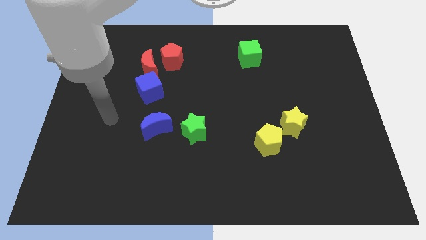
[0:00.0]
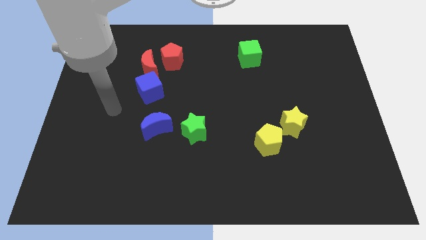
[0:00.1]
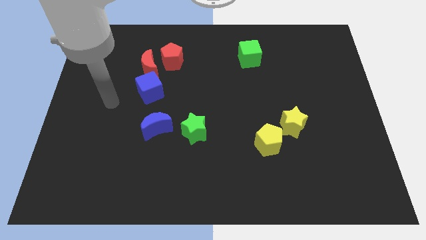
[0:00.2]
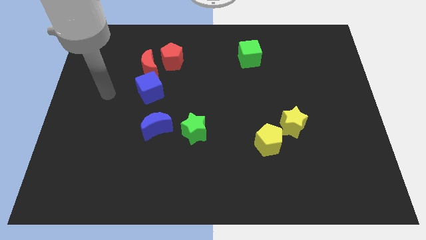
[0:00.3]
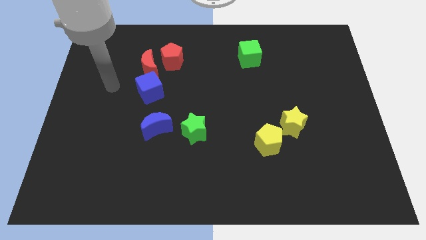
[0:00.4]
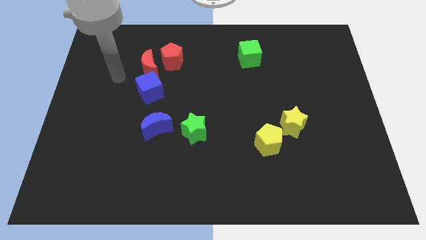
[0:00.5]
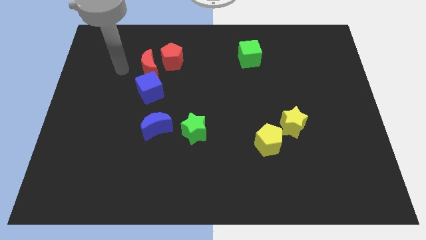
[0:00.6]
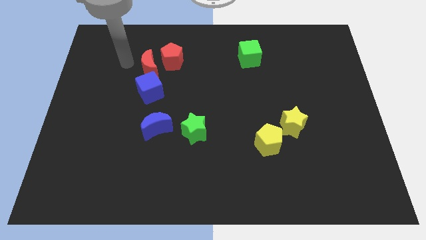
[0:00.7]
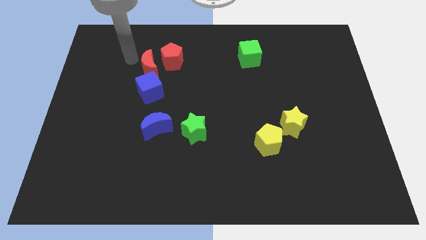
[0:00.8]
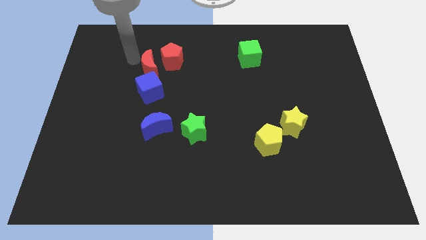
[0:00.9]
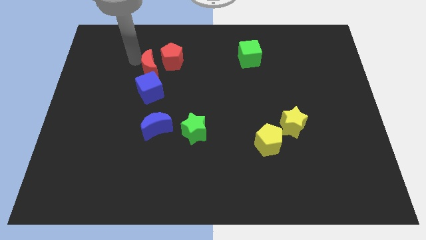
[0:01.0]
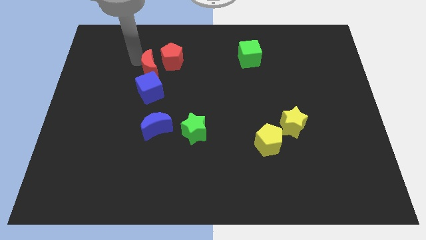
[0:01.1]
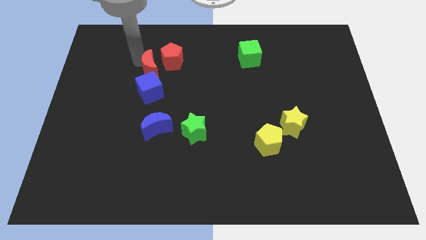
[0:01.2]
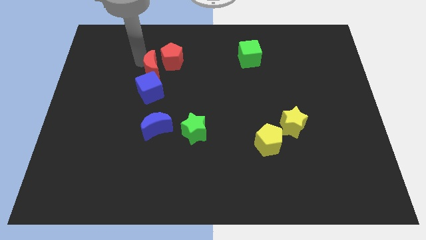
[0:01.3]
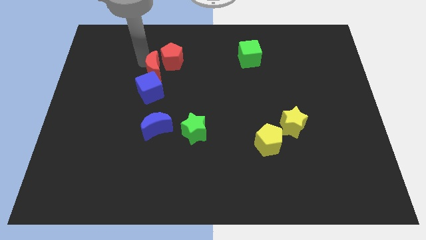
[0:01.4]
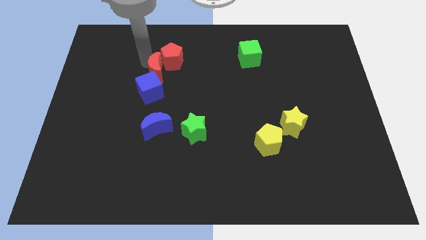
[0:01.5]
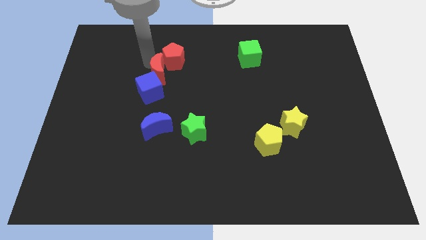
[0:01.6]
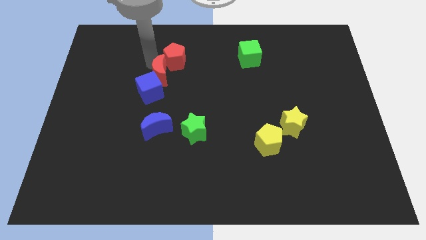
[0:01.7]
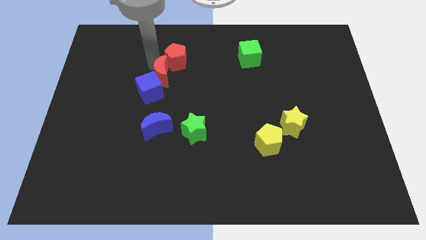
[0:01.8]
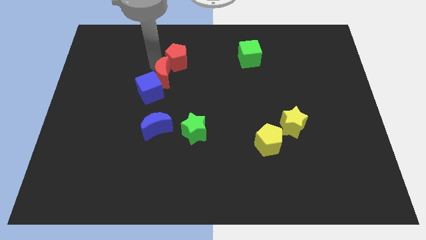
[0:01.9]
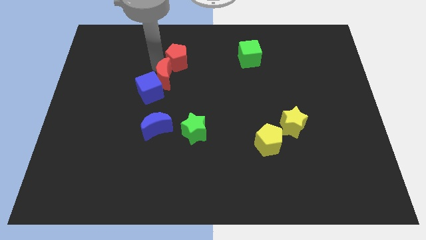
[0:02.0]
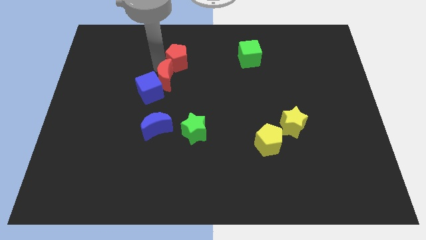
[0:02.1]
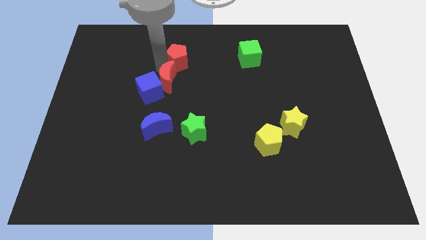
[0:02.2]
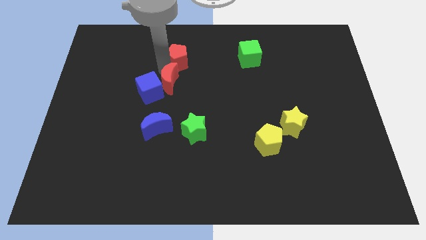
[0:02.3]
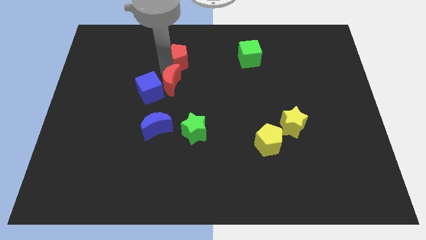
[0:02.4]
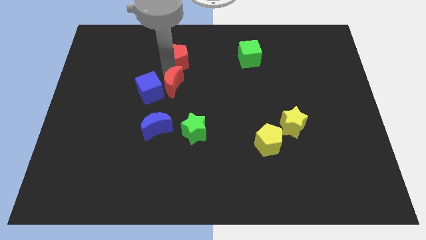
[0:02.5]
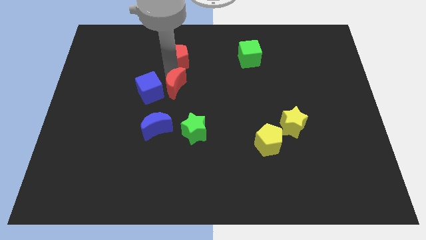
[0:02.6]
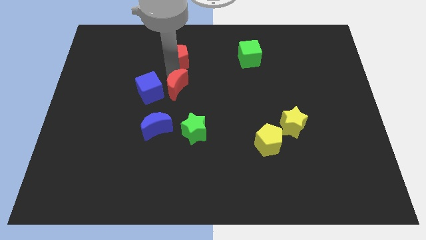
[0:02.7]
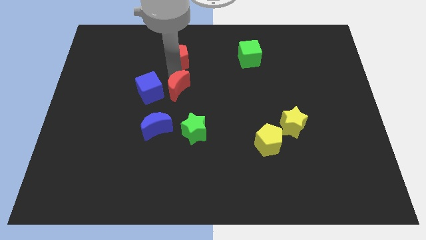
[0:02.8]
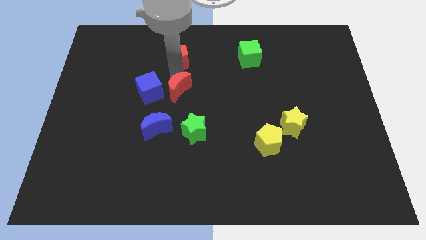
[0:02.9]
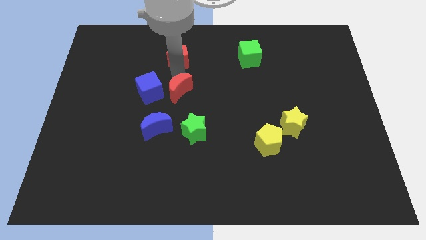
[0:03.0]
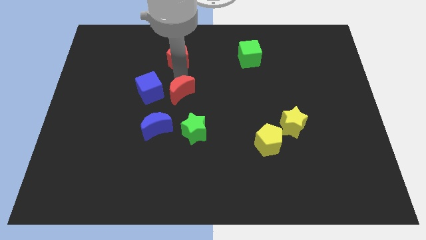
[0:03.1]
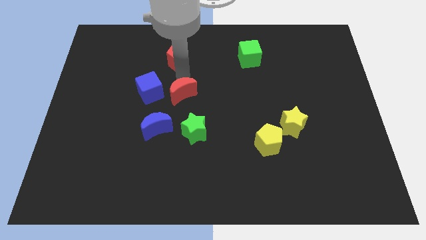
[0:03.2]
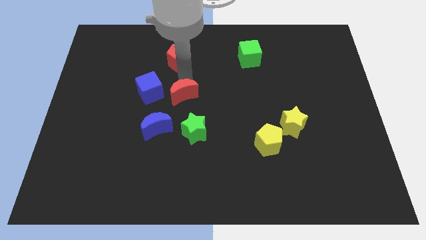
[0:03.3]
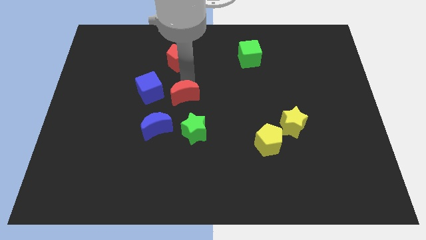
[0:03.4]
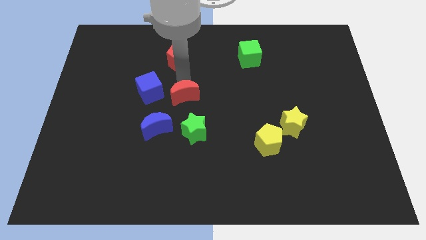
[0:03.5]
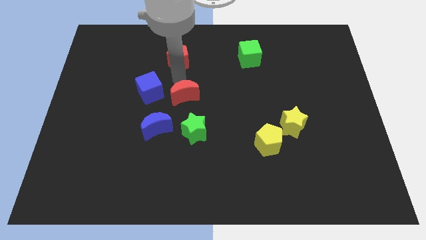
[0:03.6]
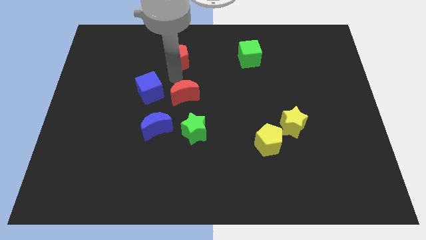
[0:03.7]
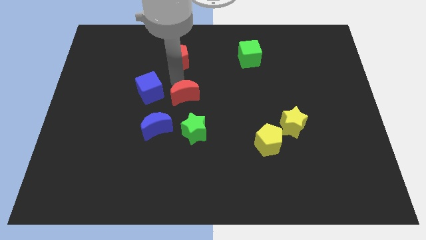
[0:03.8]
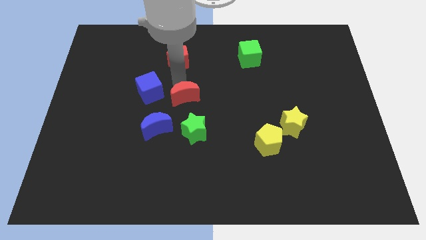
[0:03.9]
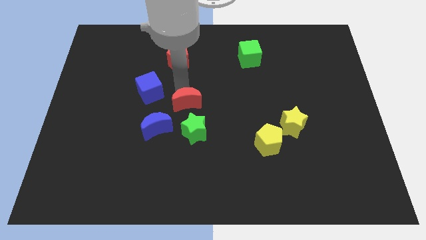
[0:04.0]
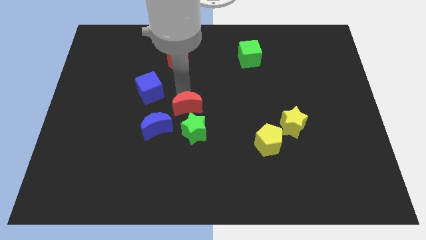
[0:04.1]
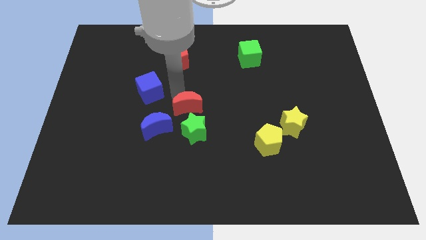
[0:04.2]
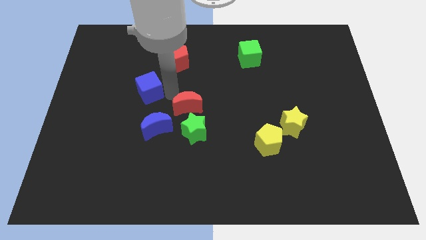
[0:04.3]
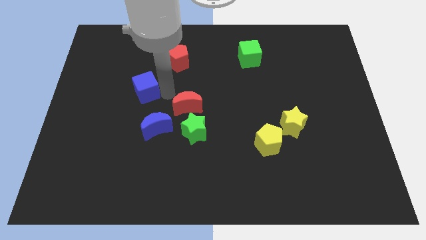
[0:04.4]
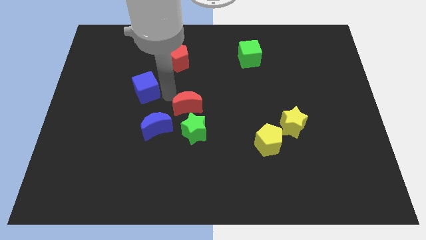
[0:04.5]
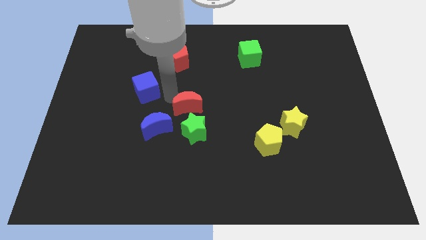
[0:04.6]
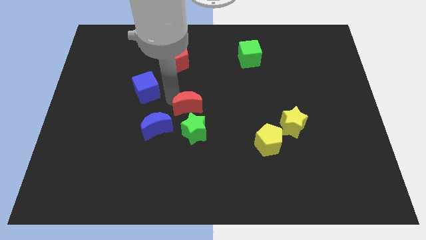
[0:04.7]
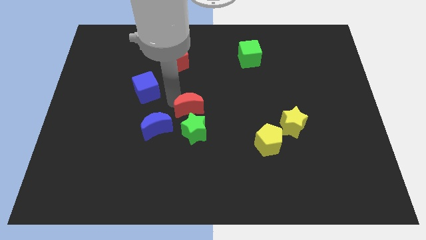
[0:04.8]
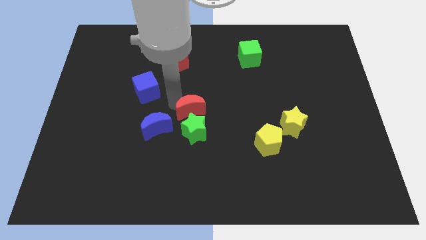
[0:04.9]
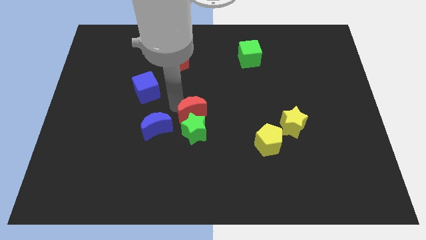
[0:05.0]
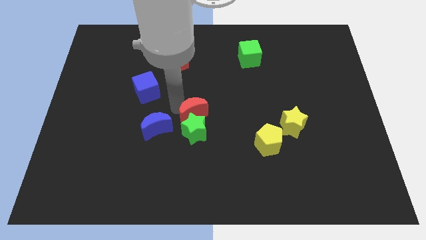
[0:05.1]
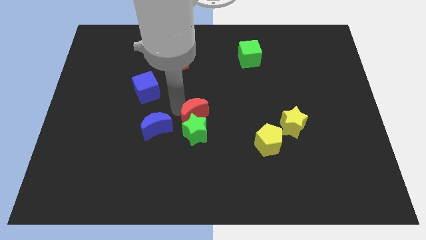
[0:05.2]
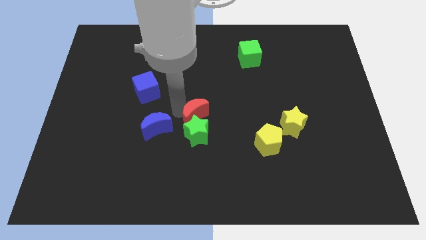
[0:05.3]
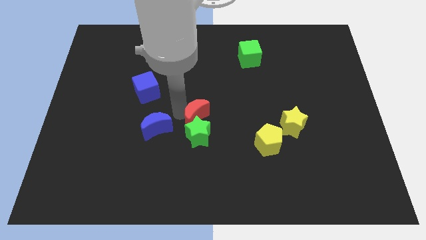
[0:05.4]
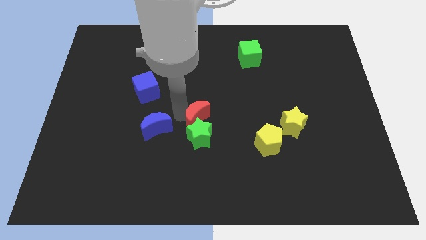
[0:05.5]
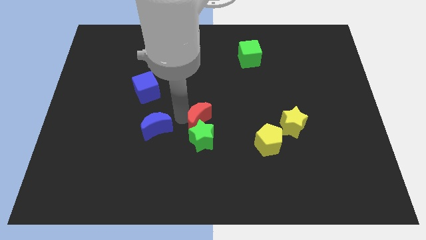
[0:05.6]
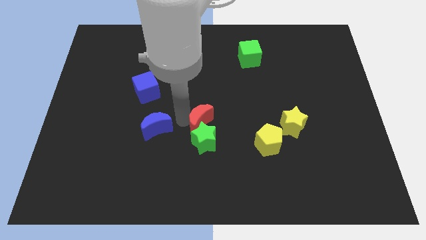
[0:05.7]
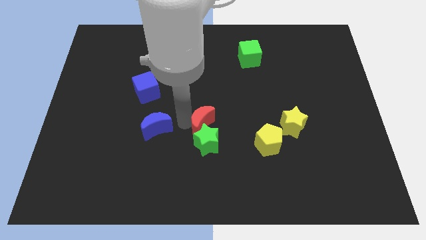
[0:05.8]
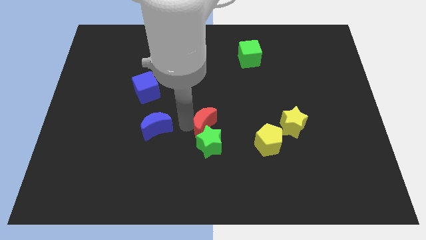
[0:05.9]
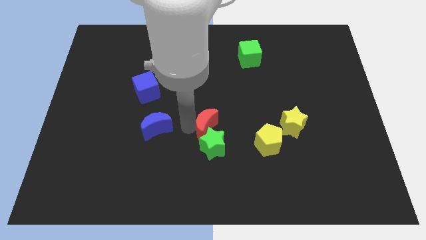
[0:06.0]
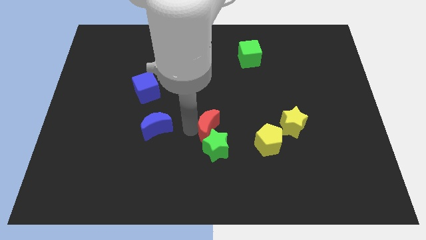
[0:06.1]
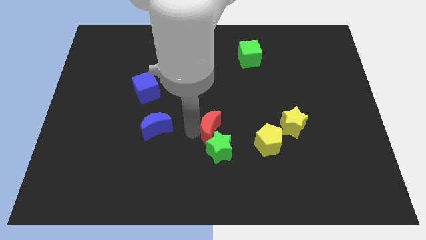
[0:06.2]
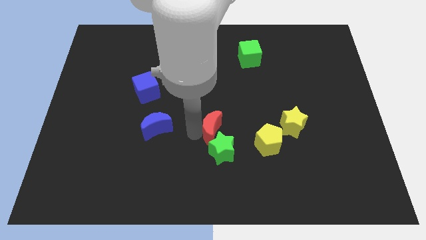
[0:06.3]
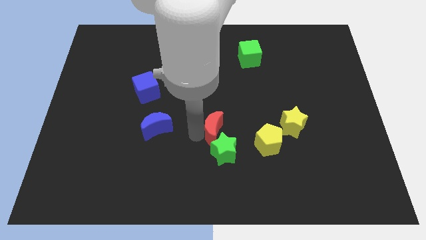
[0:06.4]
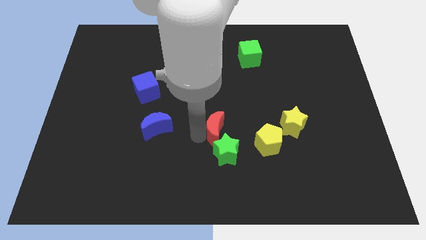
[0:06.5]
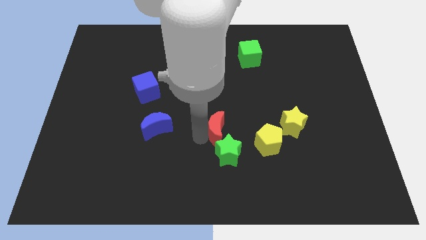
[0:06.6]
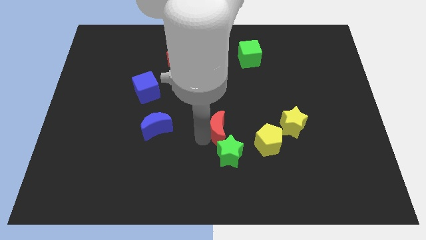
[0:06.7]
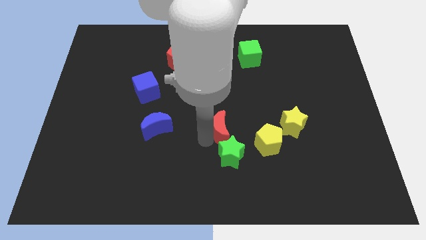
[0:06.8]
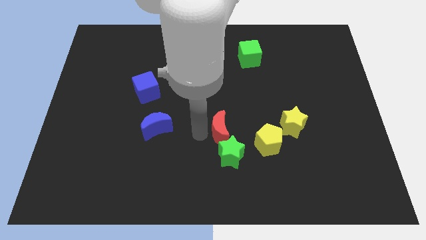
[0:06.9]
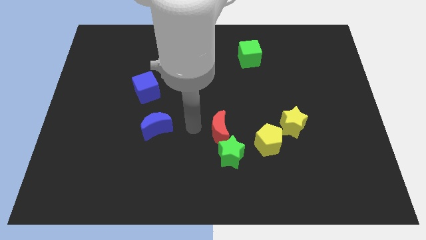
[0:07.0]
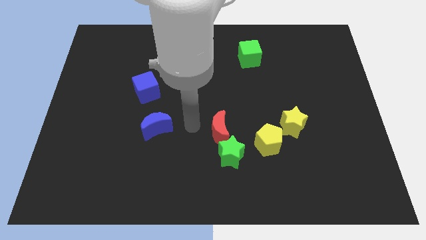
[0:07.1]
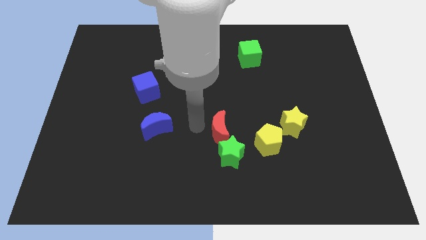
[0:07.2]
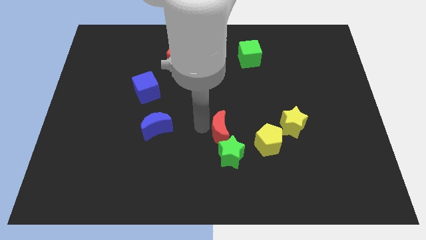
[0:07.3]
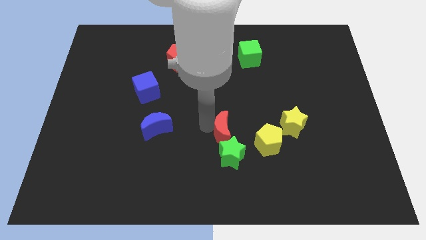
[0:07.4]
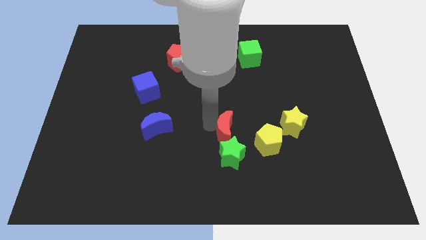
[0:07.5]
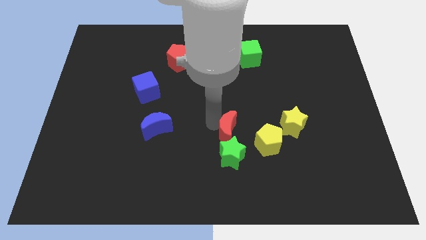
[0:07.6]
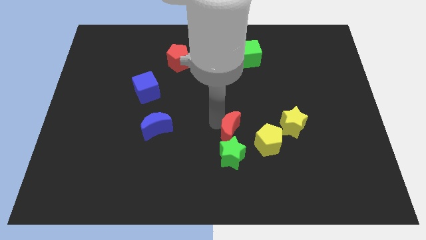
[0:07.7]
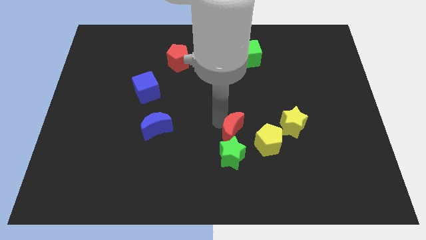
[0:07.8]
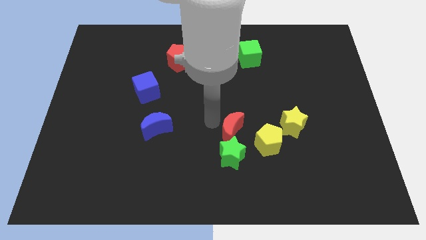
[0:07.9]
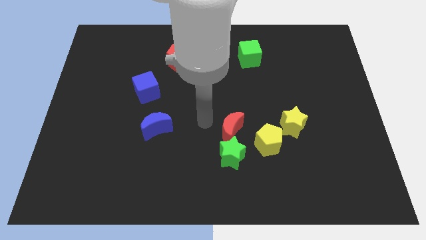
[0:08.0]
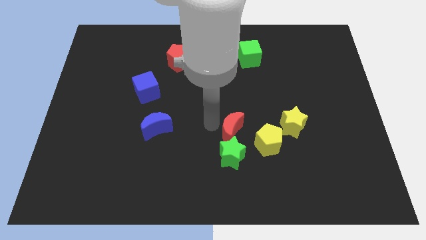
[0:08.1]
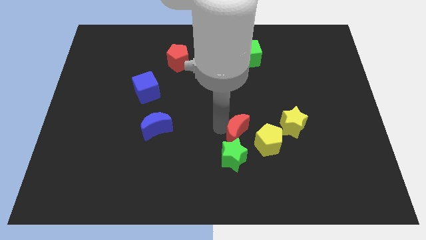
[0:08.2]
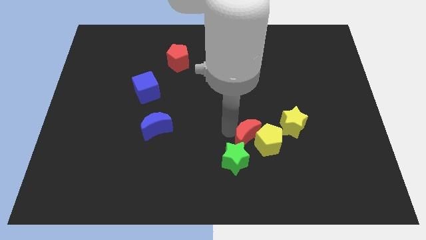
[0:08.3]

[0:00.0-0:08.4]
slide the red moon to the yellow pentagon
